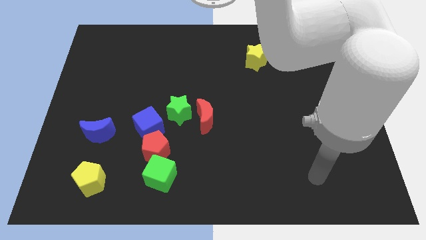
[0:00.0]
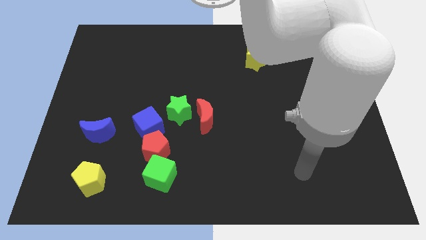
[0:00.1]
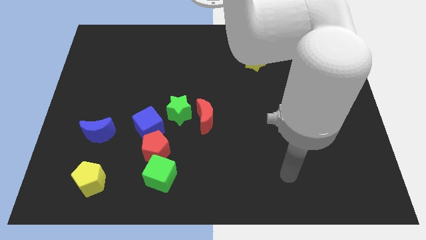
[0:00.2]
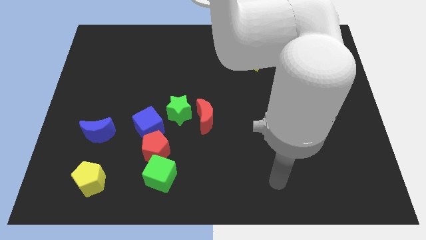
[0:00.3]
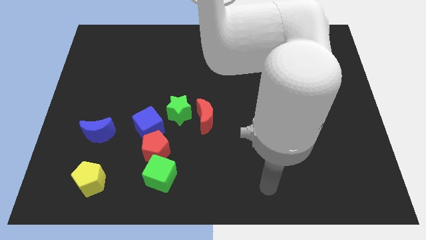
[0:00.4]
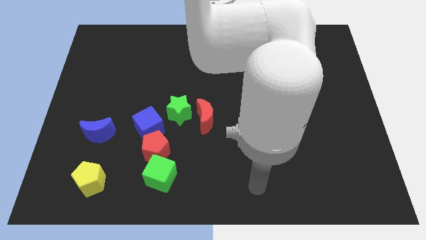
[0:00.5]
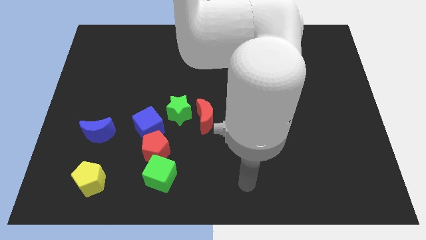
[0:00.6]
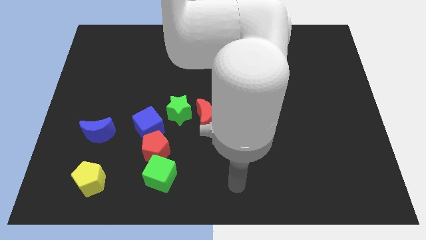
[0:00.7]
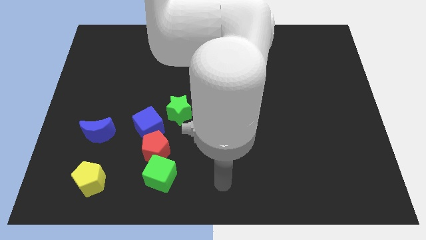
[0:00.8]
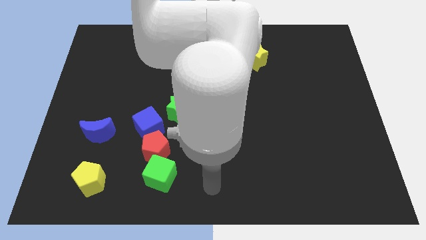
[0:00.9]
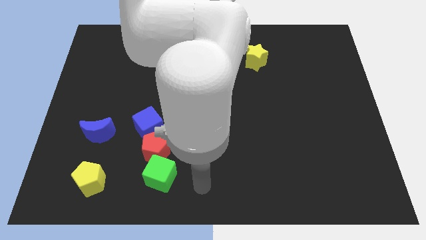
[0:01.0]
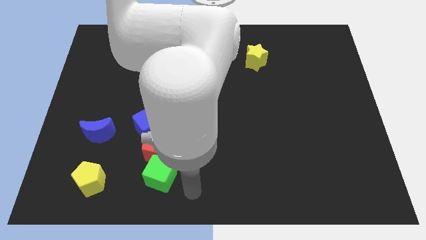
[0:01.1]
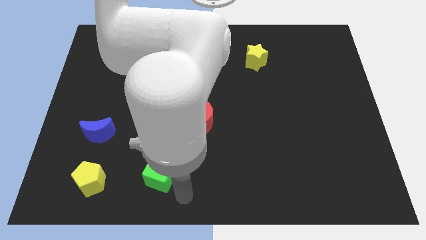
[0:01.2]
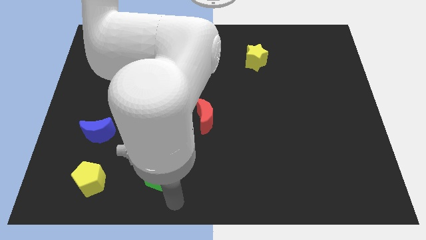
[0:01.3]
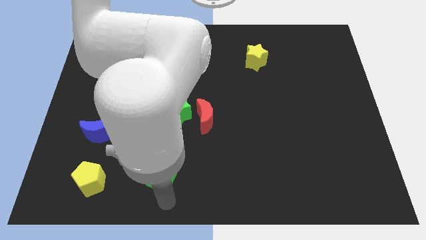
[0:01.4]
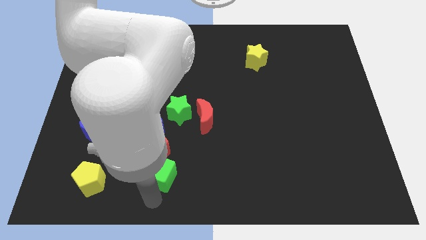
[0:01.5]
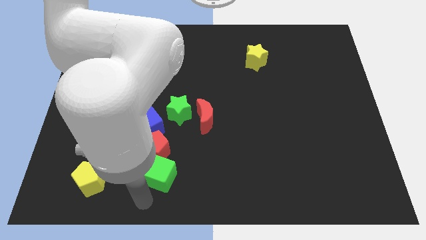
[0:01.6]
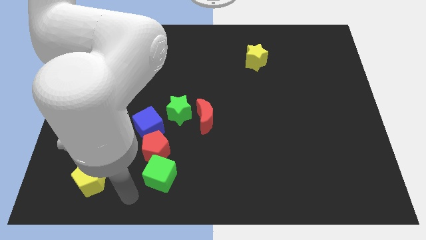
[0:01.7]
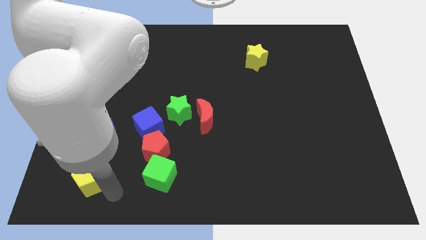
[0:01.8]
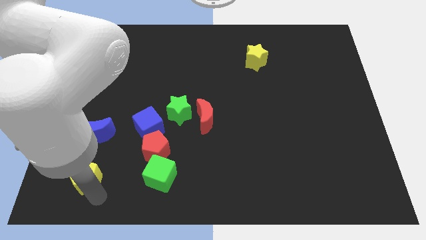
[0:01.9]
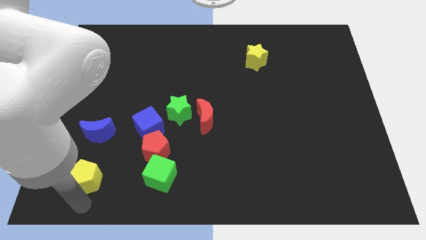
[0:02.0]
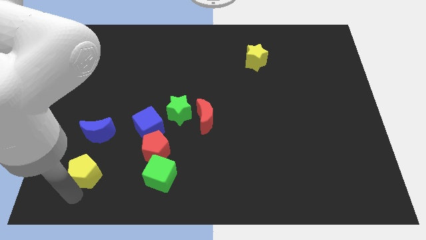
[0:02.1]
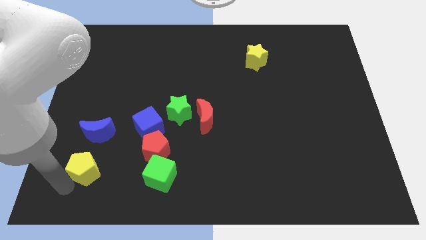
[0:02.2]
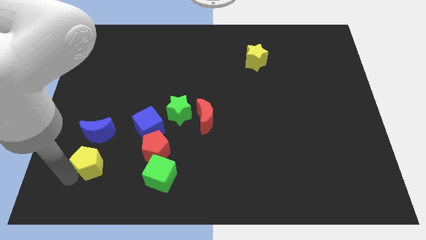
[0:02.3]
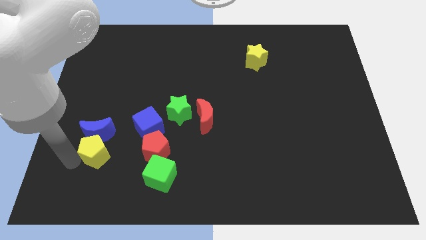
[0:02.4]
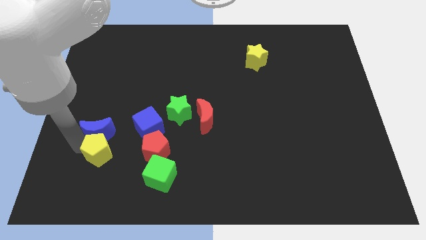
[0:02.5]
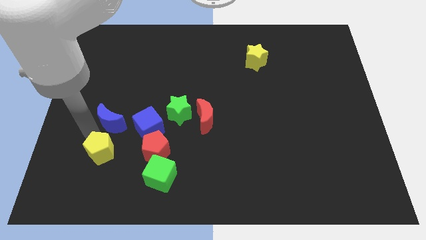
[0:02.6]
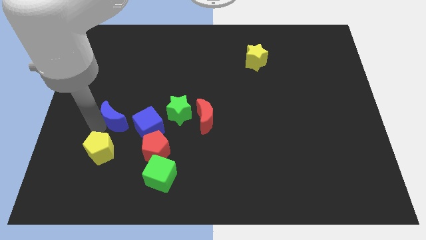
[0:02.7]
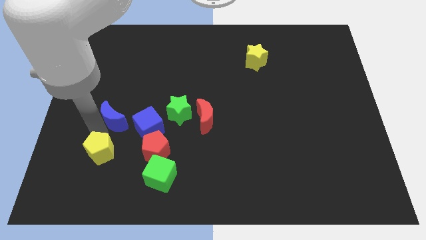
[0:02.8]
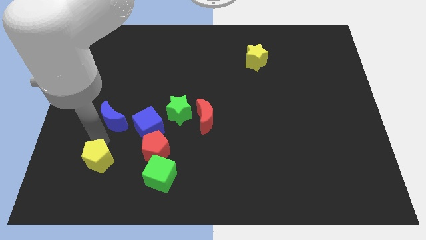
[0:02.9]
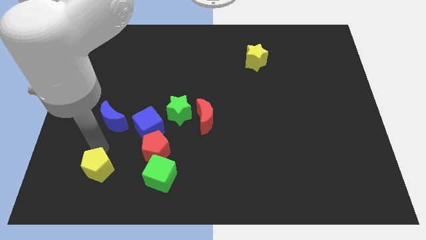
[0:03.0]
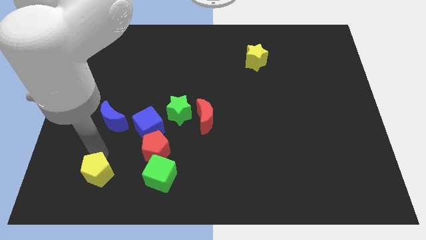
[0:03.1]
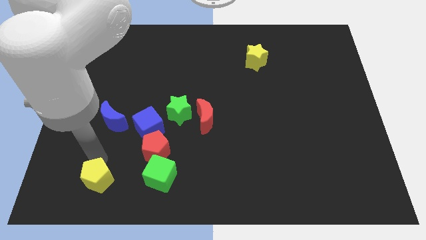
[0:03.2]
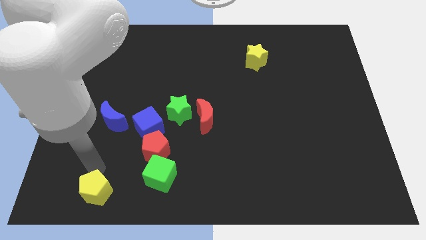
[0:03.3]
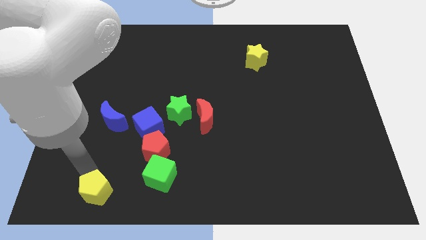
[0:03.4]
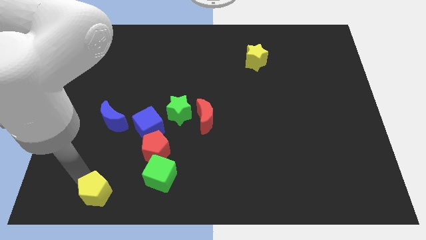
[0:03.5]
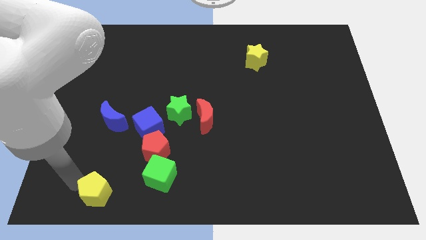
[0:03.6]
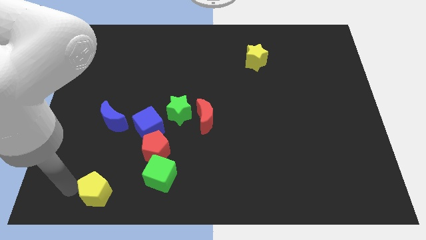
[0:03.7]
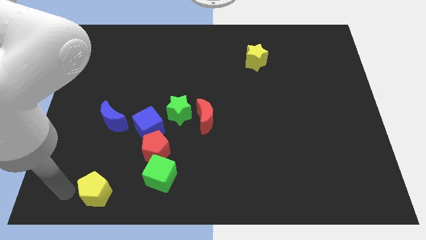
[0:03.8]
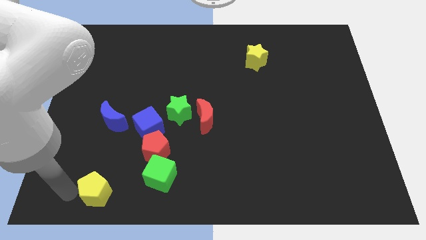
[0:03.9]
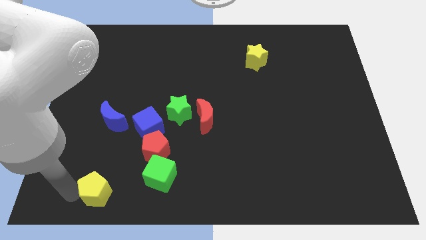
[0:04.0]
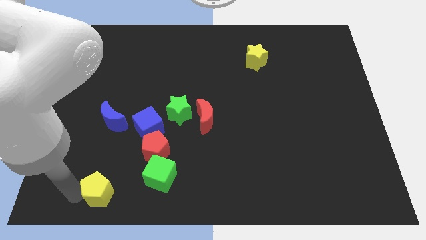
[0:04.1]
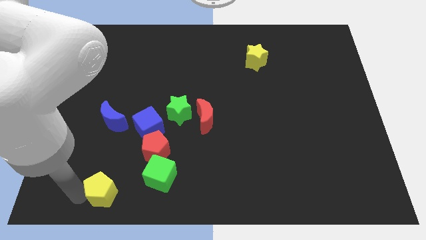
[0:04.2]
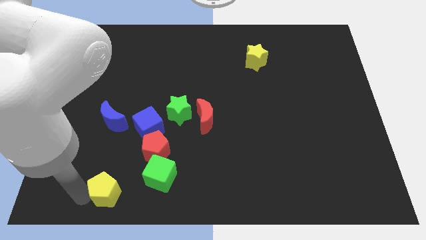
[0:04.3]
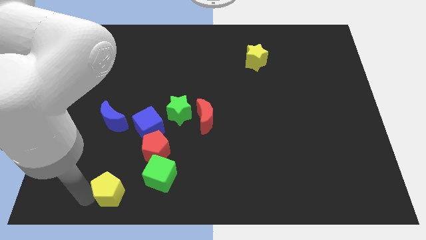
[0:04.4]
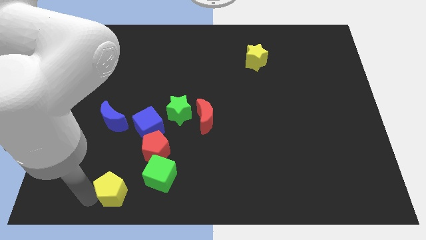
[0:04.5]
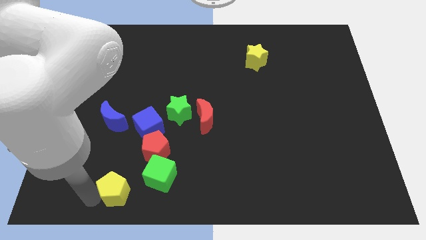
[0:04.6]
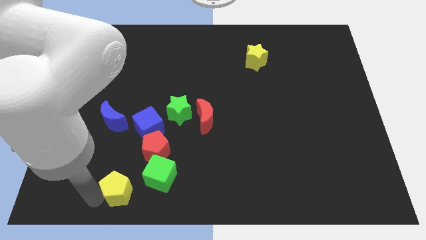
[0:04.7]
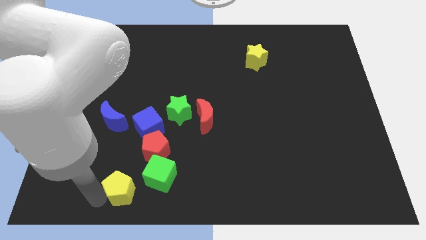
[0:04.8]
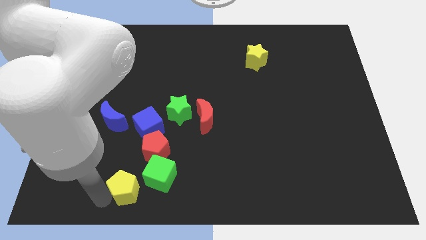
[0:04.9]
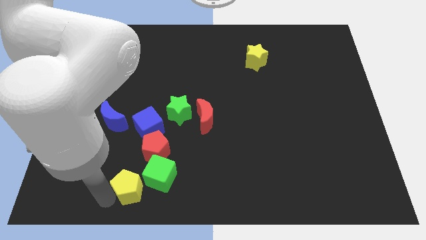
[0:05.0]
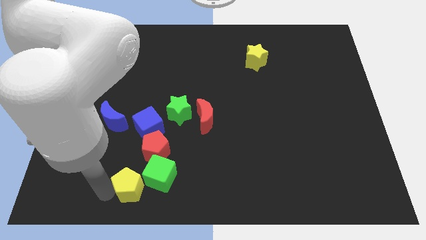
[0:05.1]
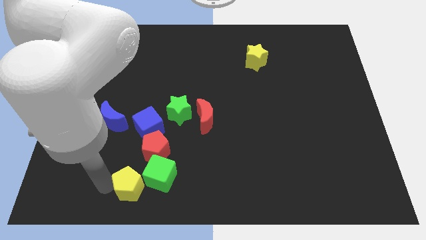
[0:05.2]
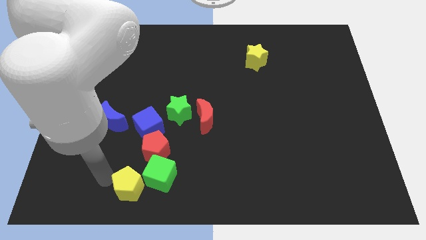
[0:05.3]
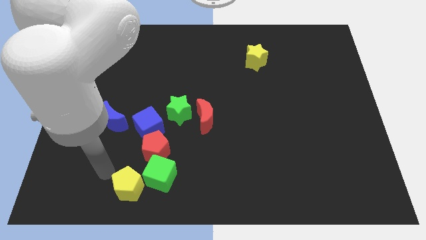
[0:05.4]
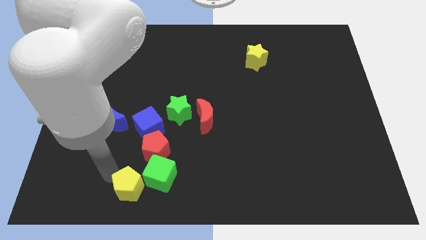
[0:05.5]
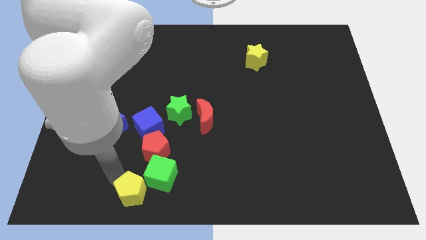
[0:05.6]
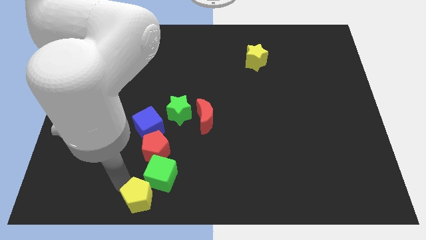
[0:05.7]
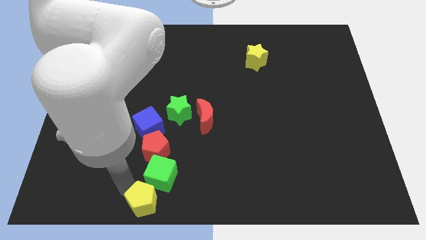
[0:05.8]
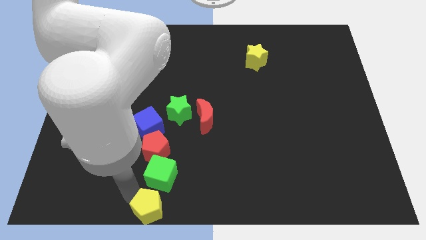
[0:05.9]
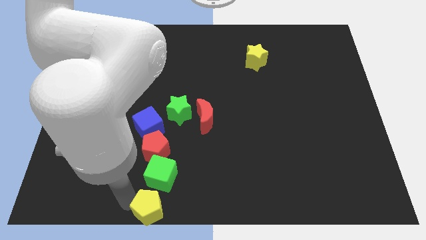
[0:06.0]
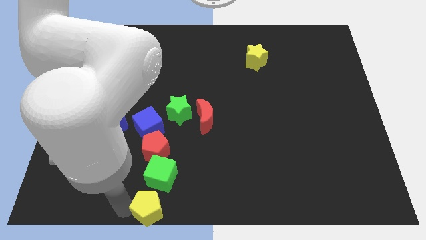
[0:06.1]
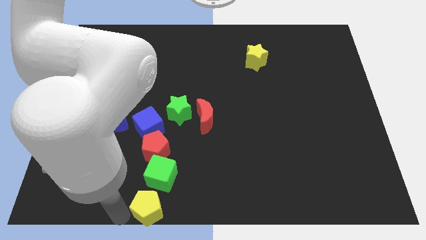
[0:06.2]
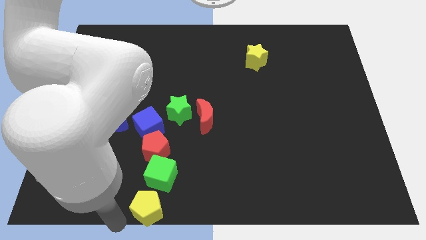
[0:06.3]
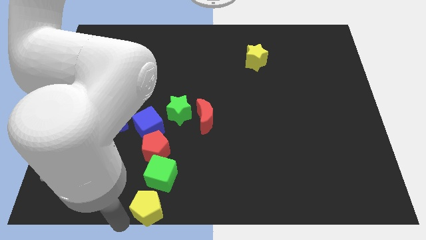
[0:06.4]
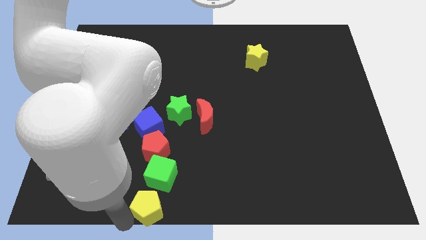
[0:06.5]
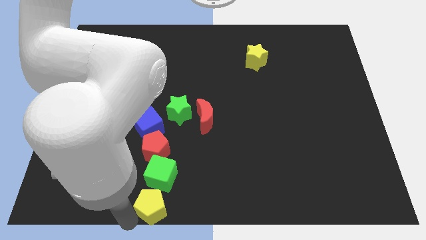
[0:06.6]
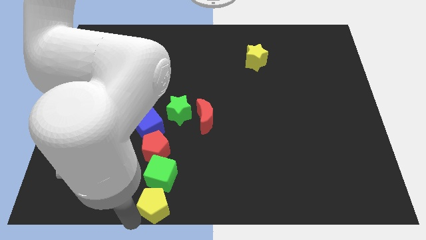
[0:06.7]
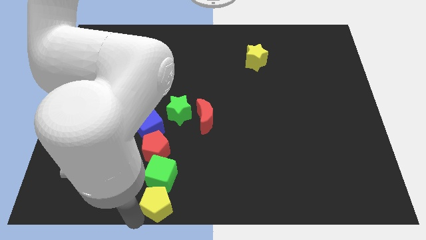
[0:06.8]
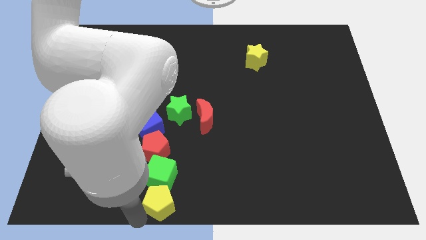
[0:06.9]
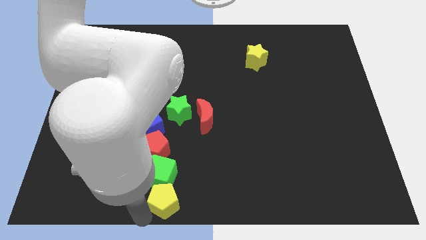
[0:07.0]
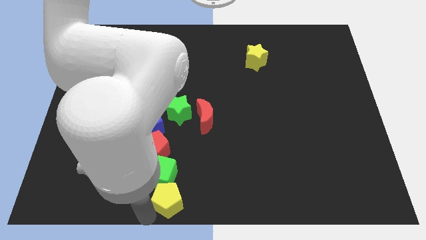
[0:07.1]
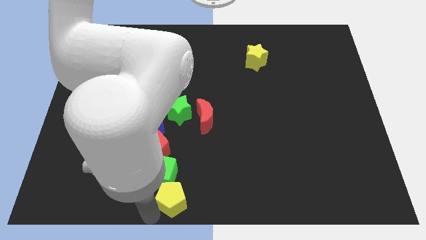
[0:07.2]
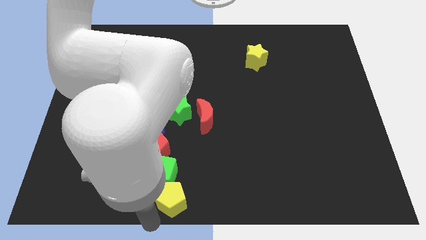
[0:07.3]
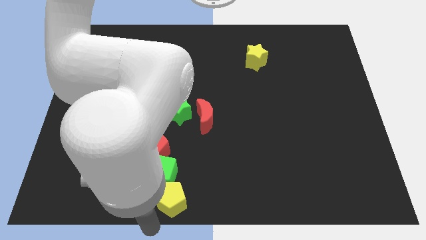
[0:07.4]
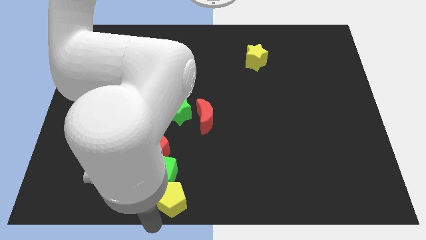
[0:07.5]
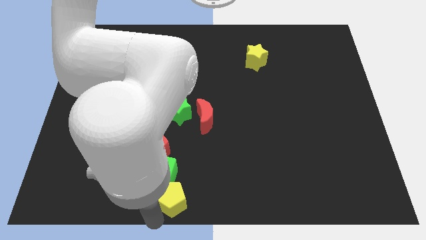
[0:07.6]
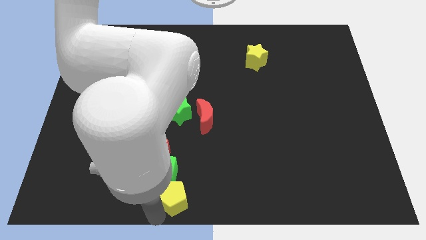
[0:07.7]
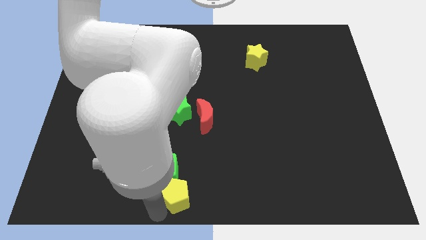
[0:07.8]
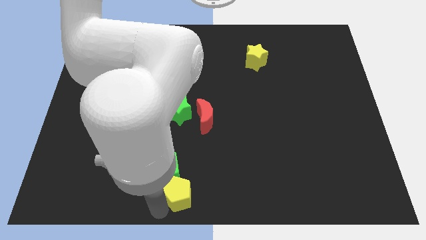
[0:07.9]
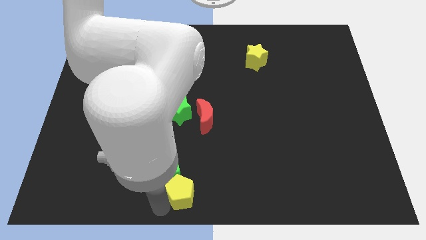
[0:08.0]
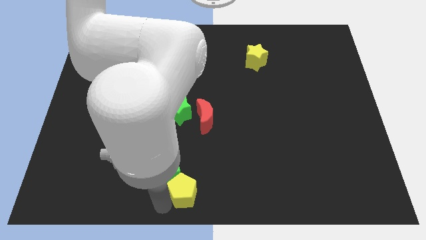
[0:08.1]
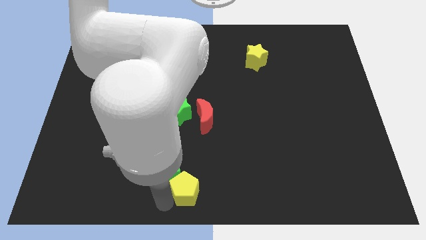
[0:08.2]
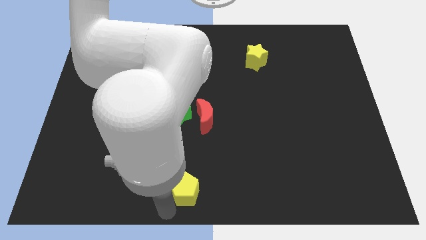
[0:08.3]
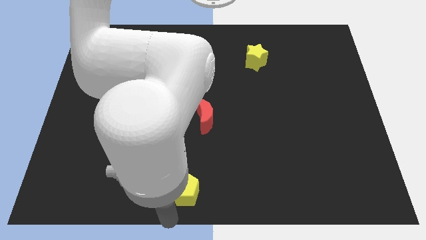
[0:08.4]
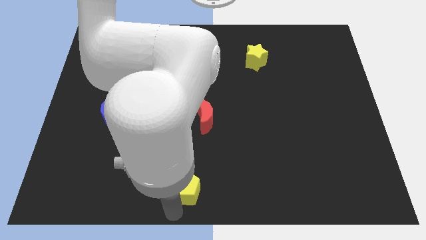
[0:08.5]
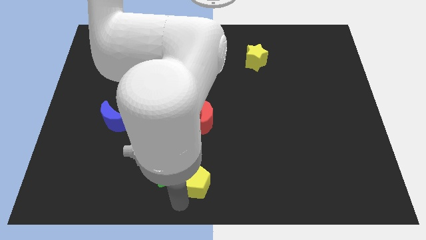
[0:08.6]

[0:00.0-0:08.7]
put the yellow pentagon to the bottom side of the red moon
